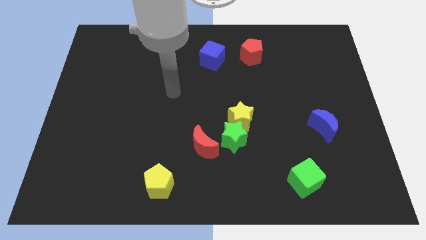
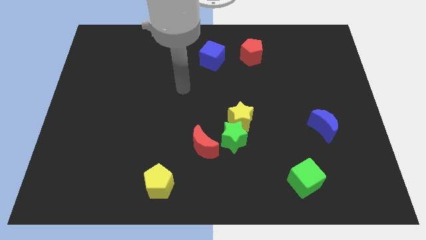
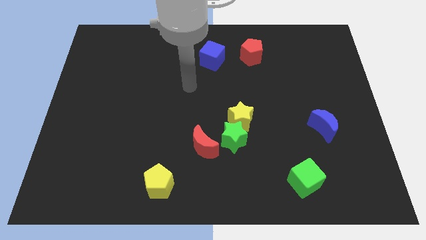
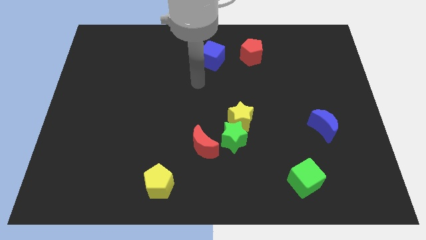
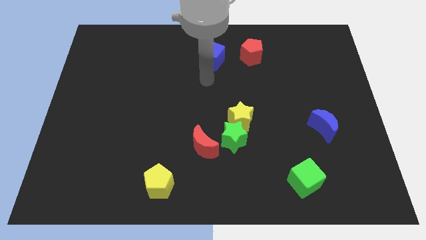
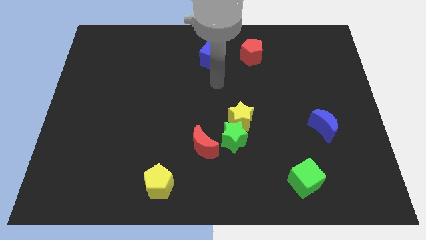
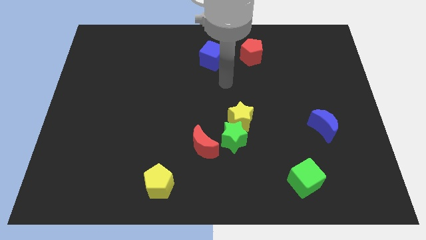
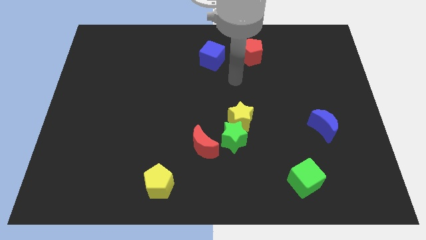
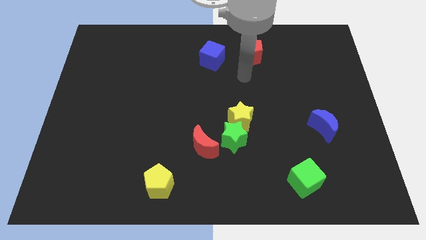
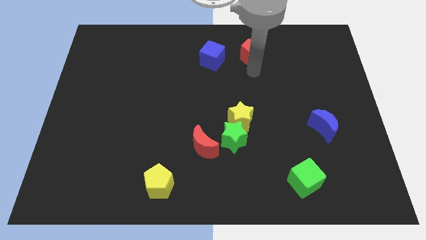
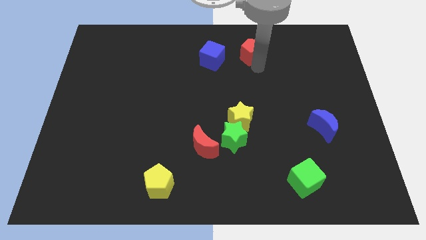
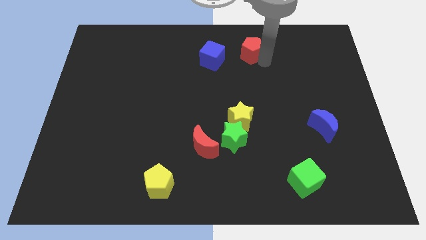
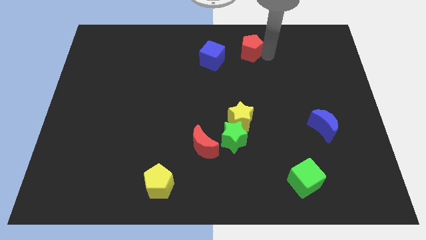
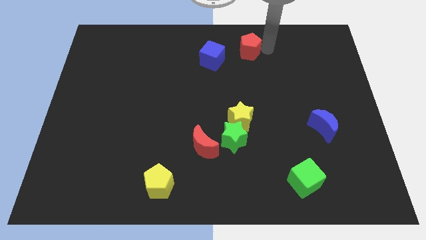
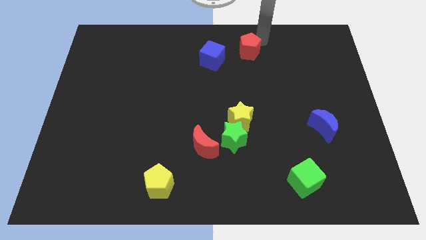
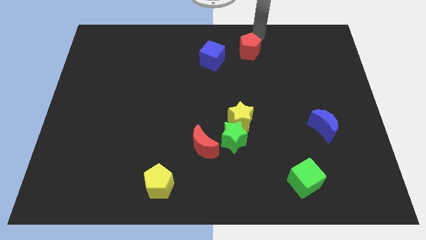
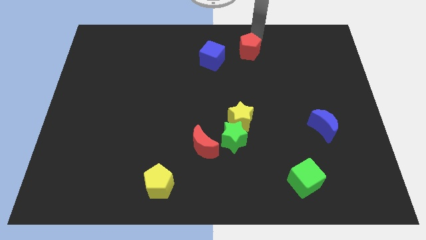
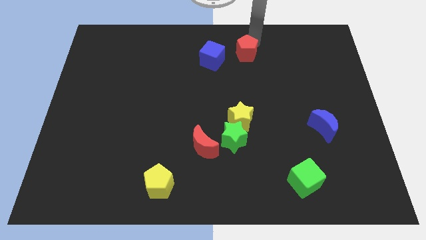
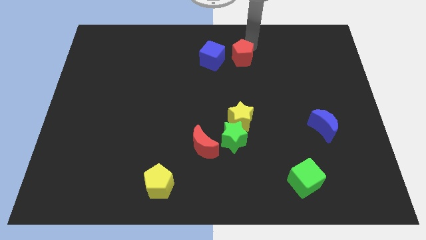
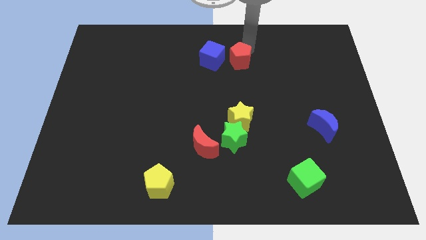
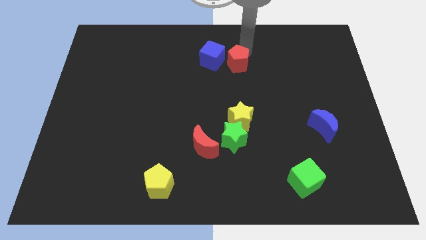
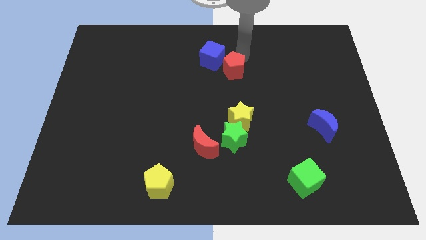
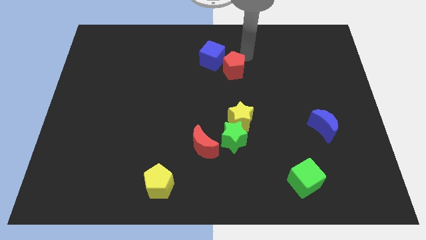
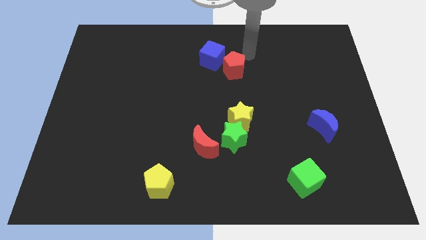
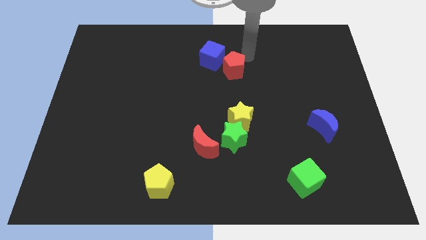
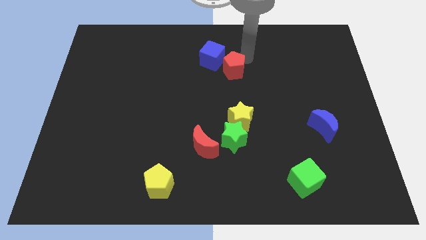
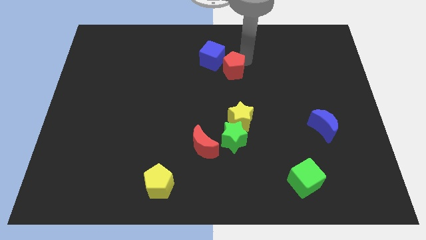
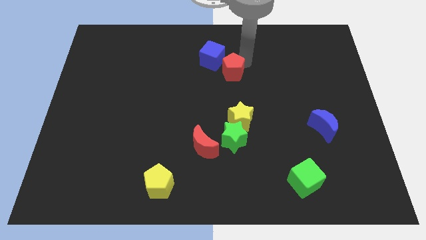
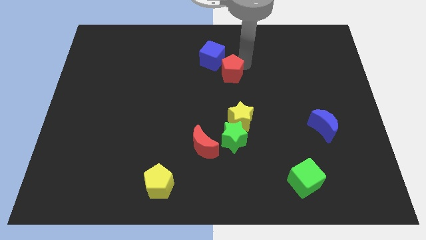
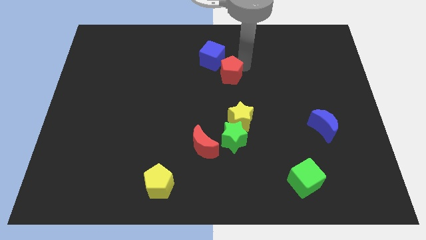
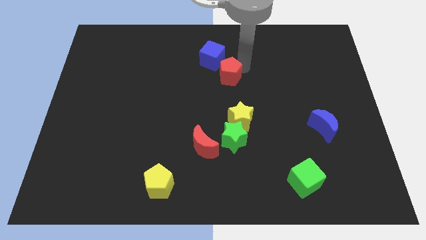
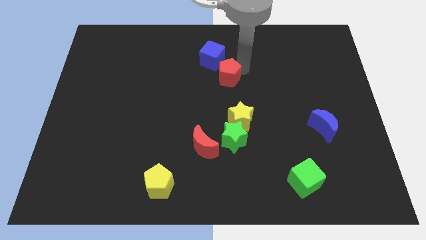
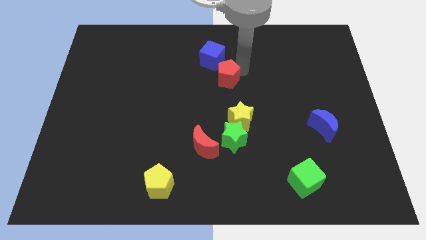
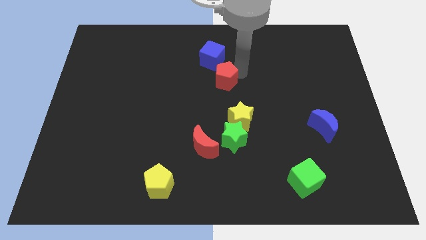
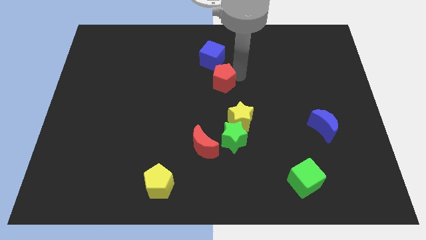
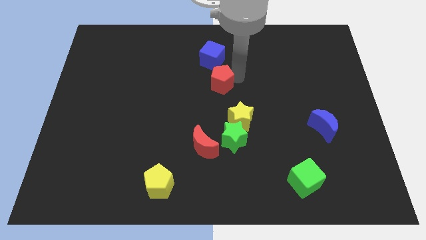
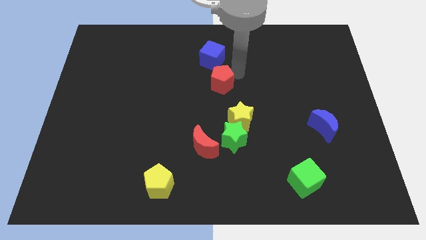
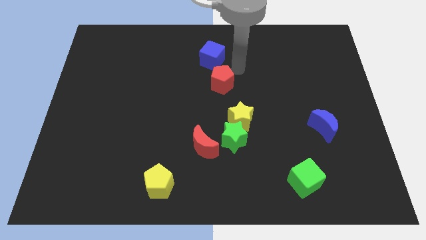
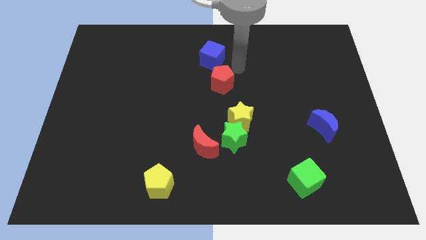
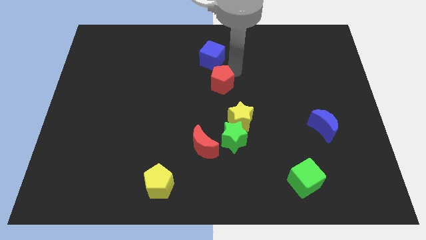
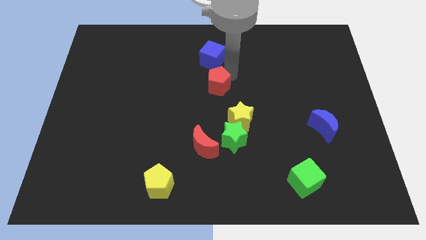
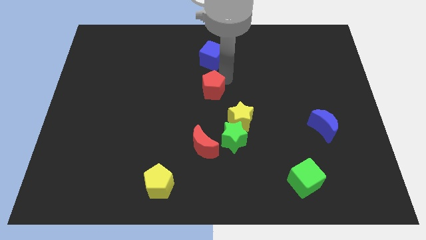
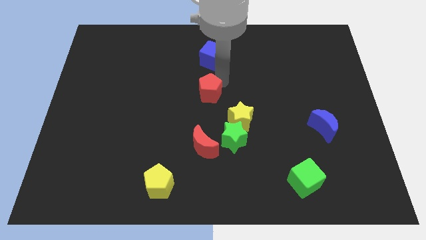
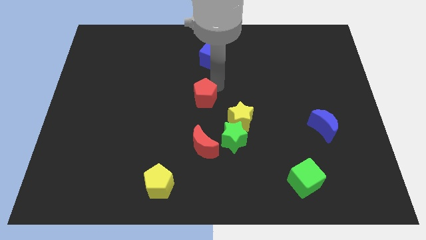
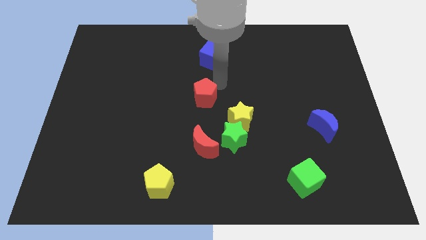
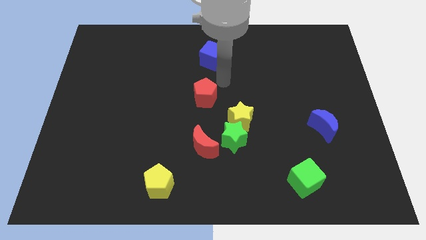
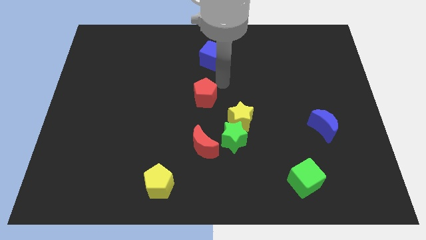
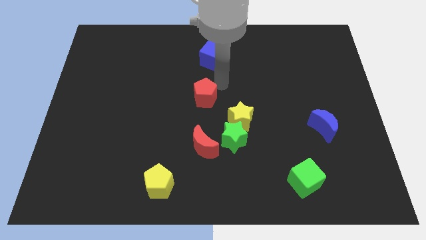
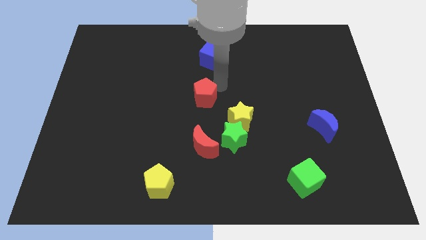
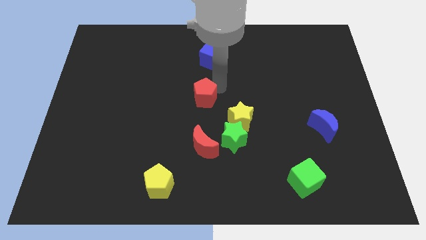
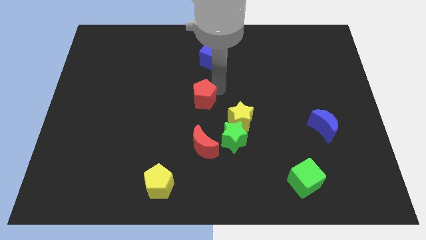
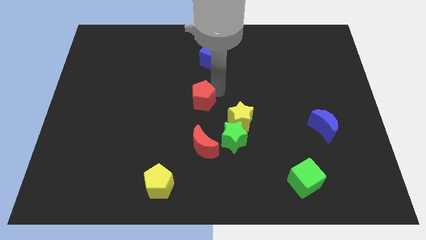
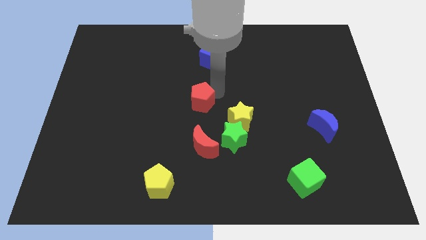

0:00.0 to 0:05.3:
move the red pentagon down and then to the left

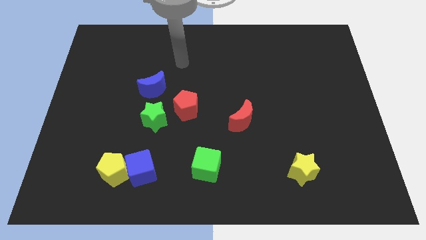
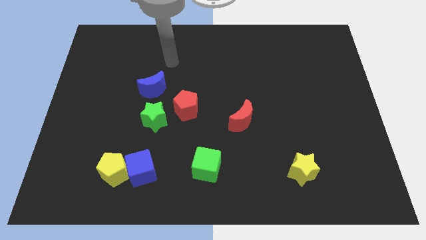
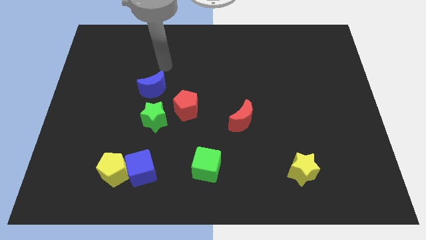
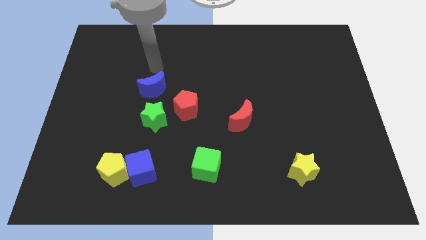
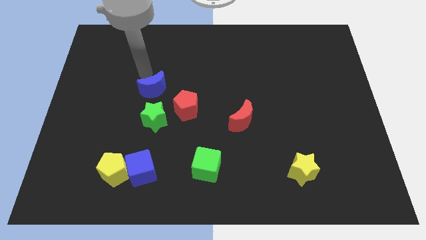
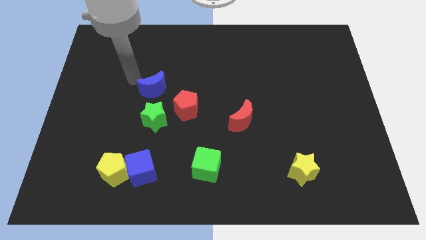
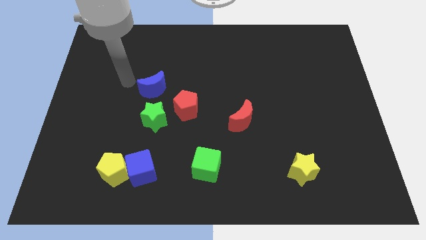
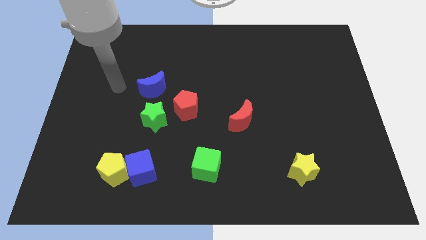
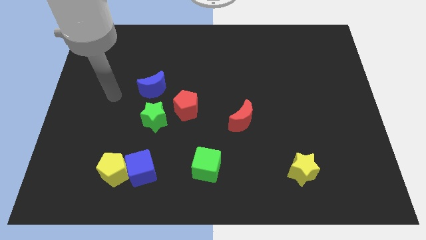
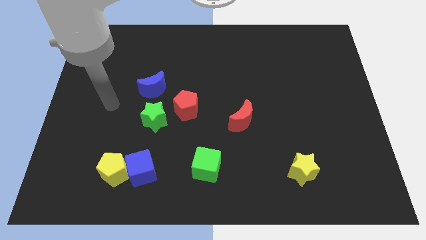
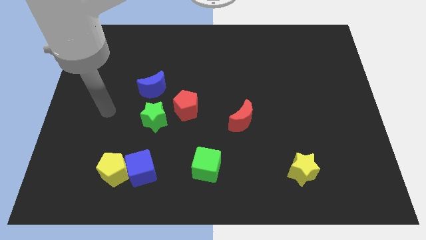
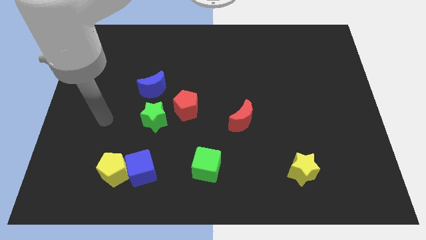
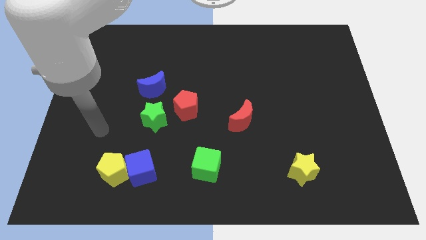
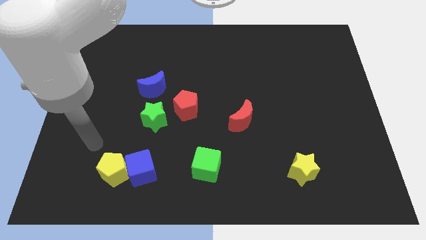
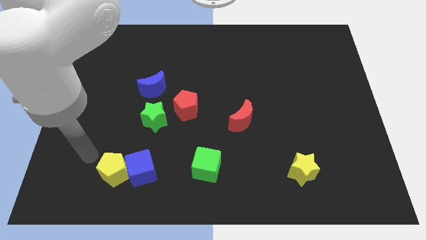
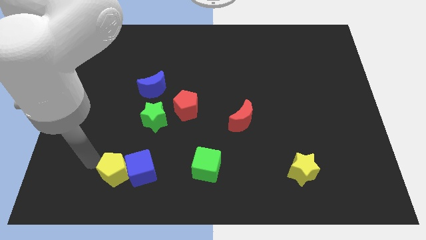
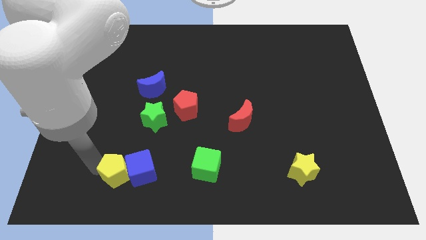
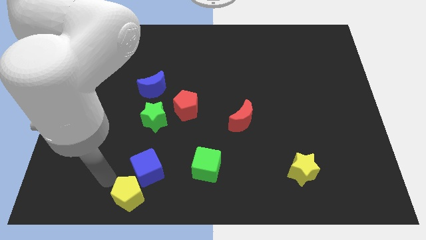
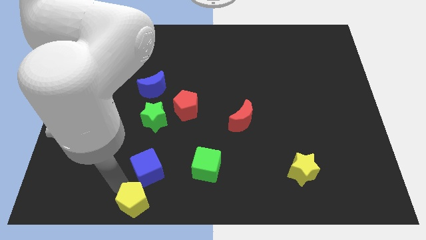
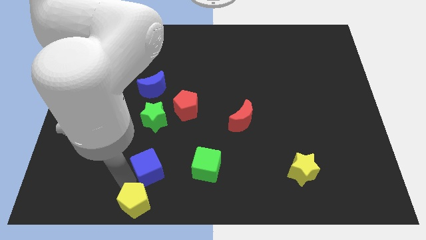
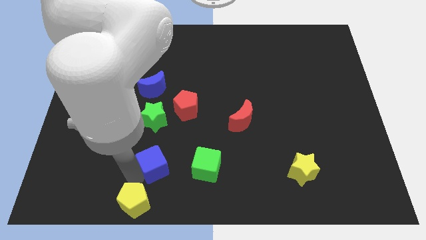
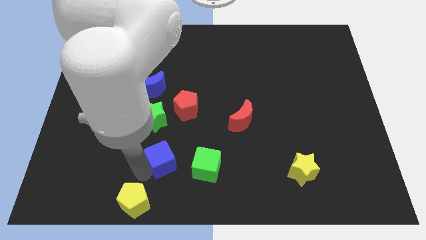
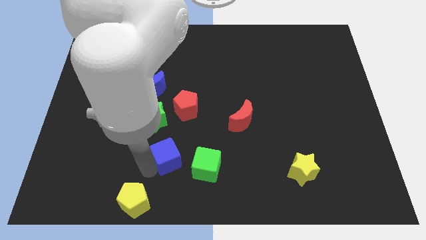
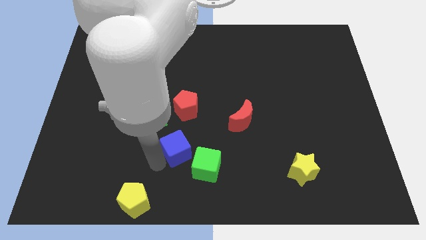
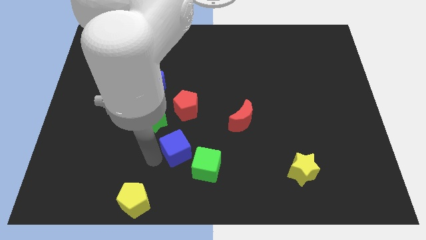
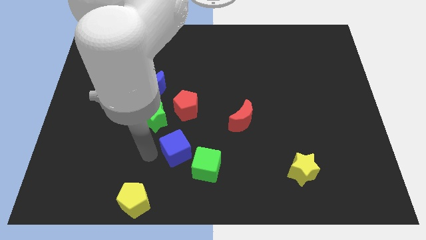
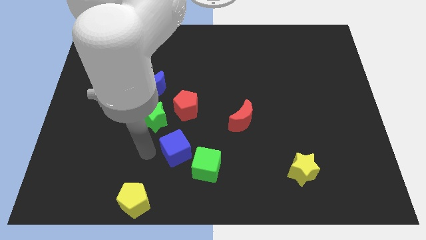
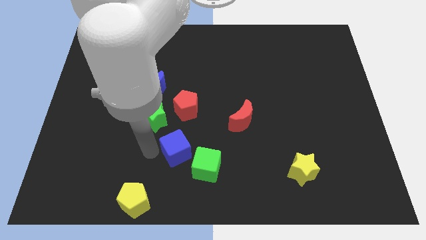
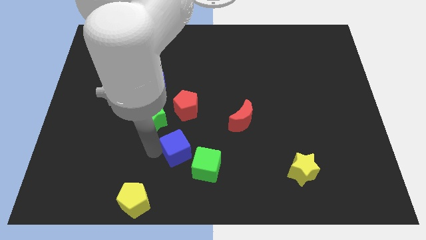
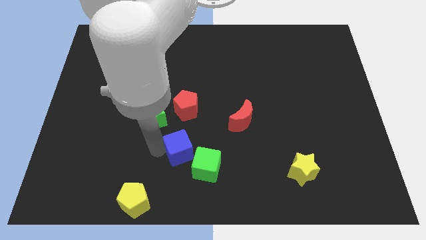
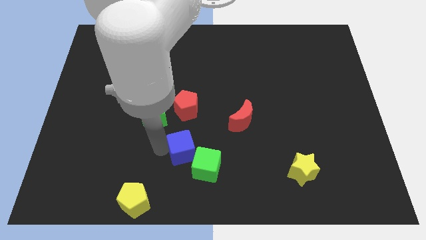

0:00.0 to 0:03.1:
push the blue cube to the right a little bit

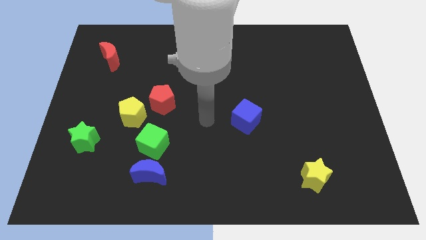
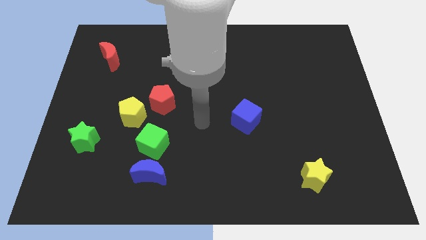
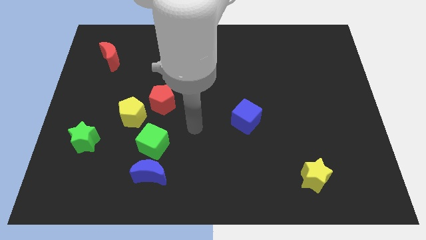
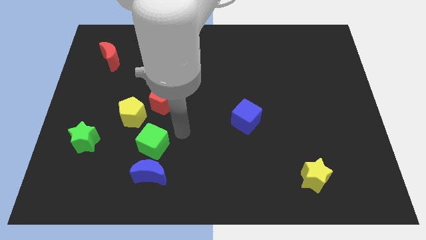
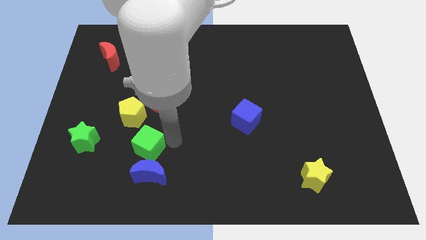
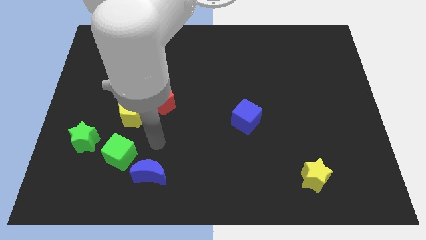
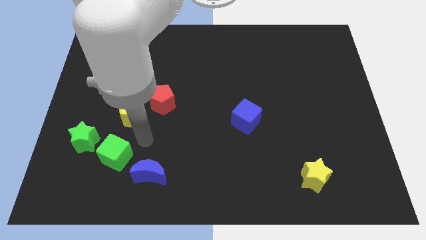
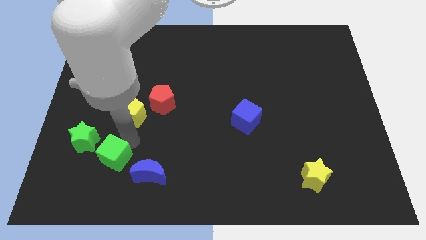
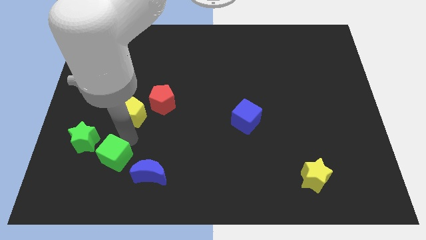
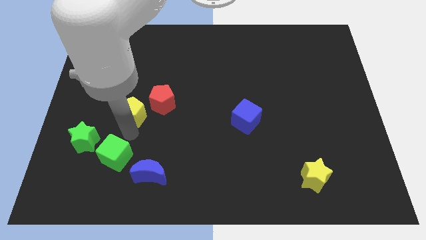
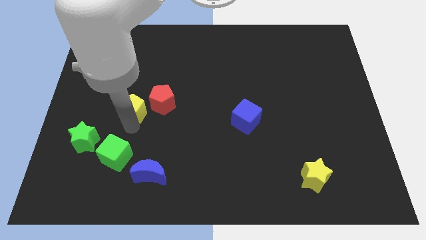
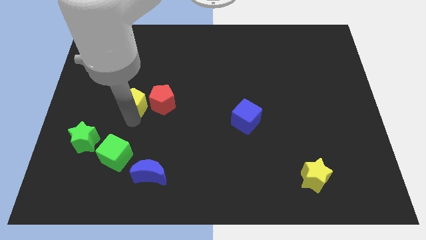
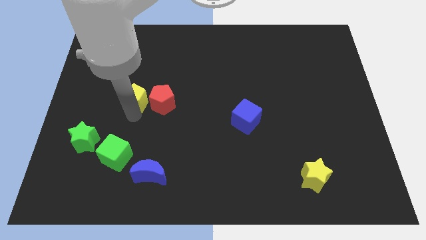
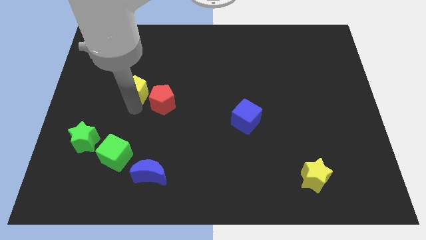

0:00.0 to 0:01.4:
move the yellow pentagon slightly upwards
